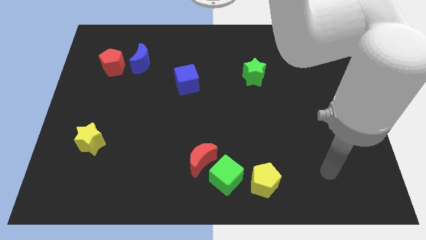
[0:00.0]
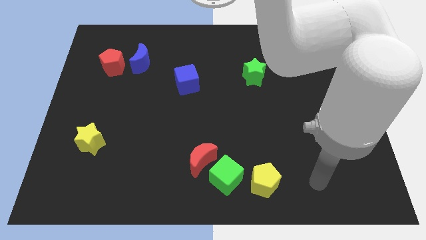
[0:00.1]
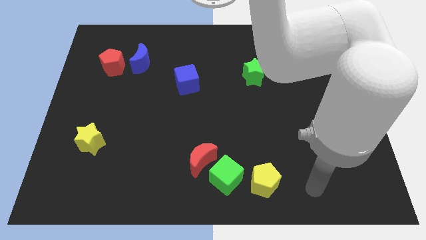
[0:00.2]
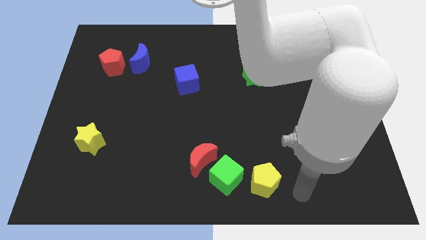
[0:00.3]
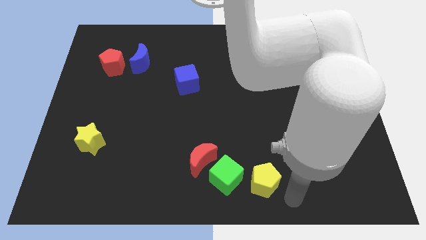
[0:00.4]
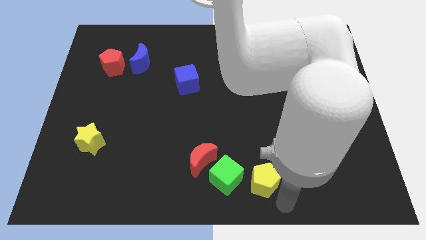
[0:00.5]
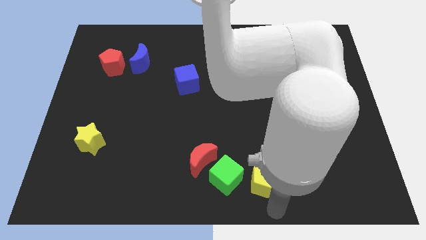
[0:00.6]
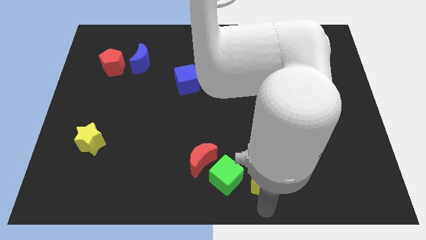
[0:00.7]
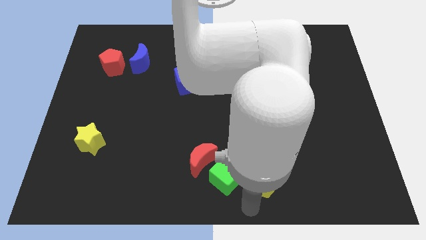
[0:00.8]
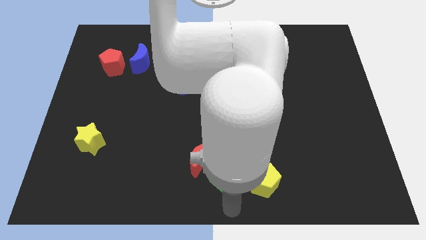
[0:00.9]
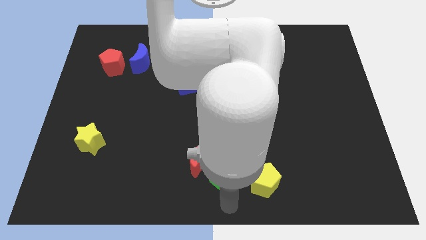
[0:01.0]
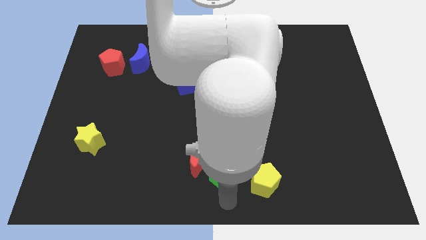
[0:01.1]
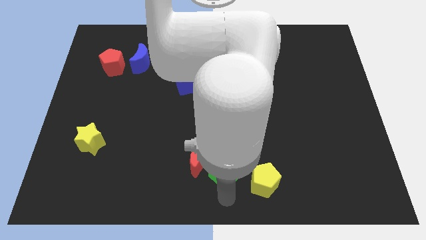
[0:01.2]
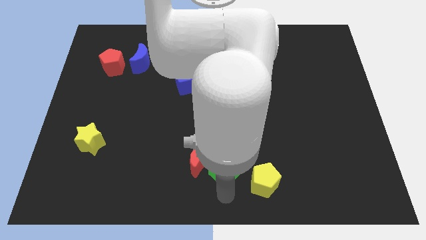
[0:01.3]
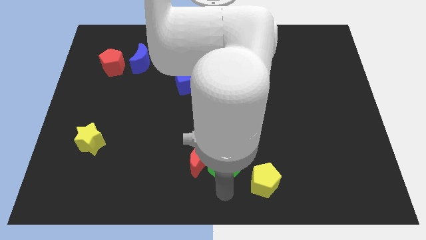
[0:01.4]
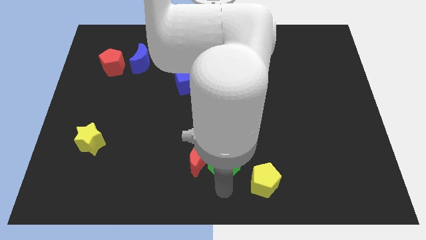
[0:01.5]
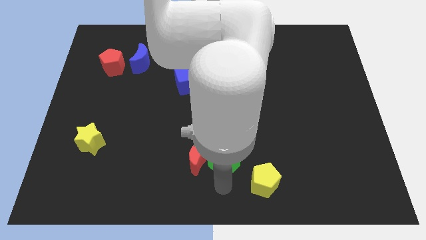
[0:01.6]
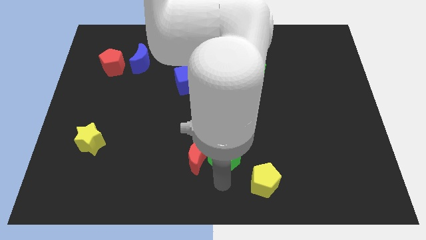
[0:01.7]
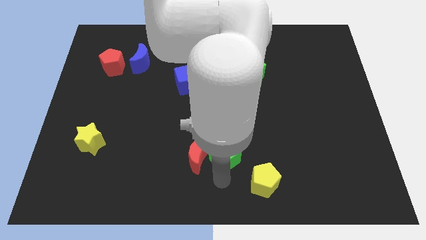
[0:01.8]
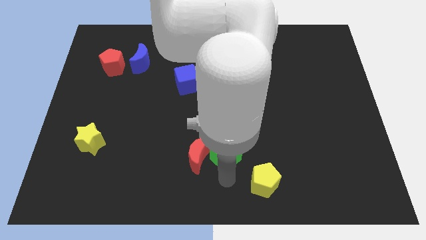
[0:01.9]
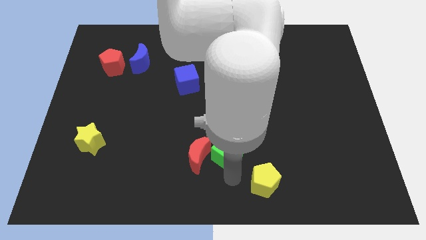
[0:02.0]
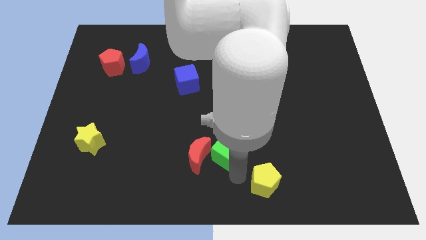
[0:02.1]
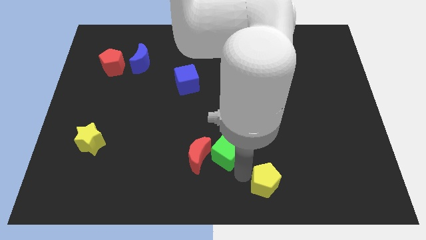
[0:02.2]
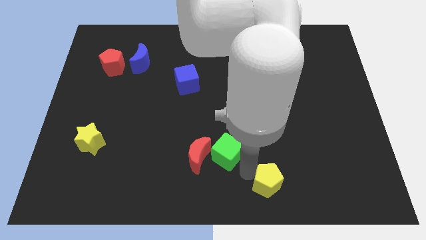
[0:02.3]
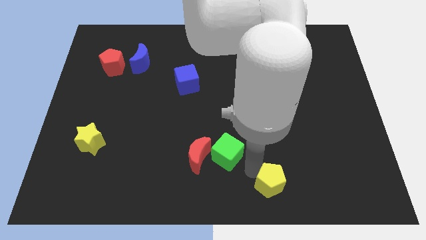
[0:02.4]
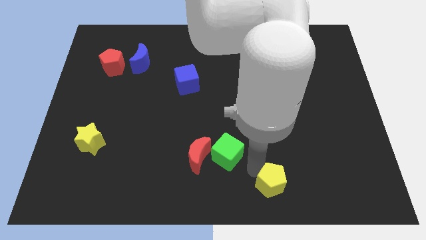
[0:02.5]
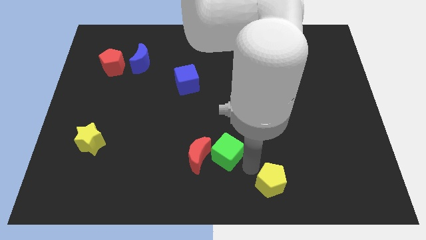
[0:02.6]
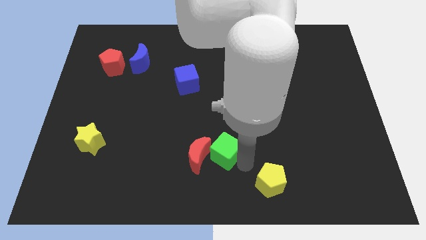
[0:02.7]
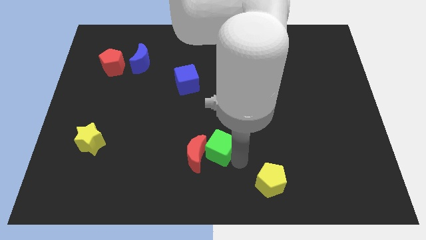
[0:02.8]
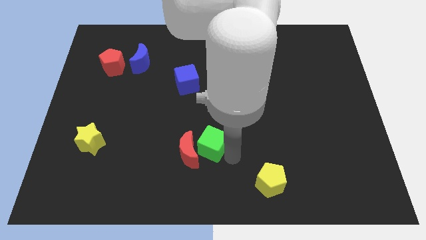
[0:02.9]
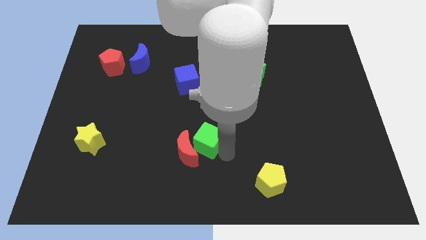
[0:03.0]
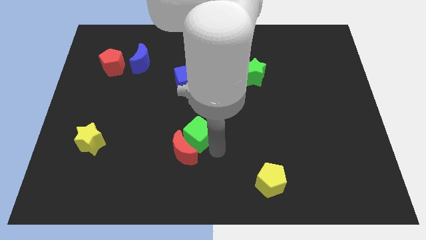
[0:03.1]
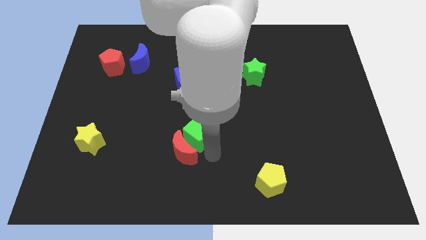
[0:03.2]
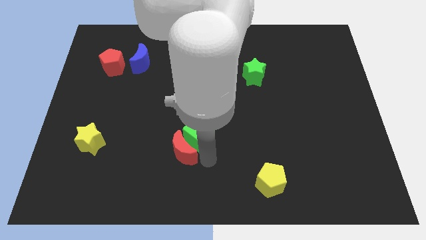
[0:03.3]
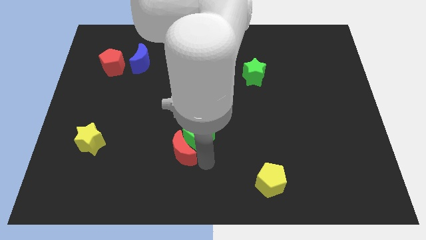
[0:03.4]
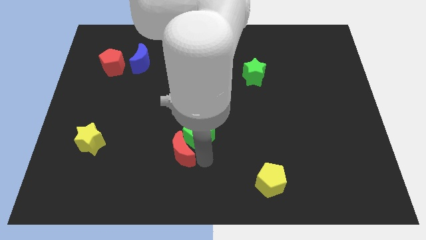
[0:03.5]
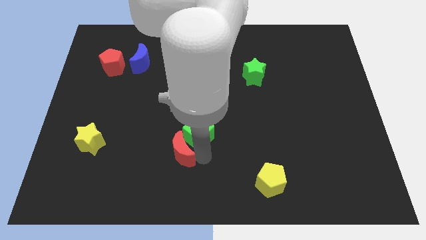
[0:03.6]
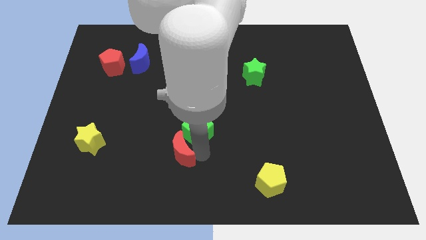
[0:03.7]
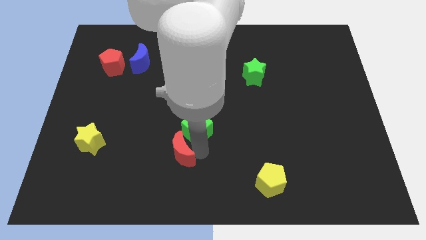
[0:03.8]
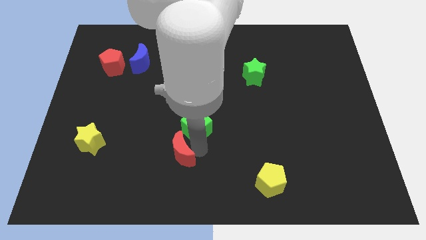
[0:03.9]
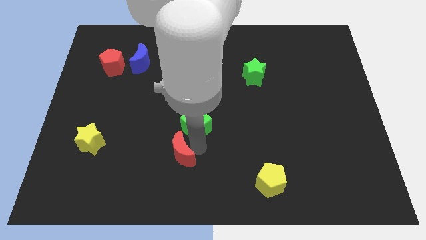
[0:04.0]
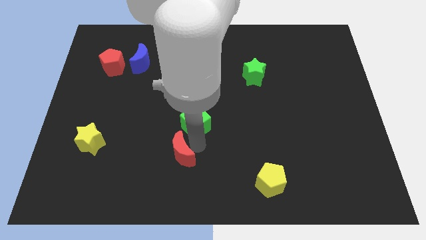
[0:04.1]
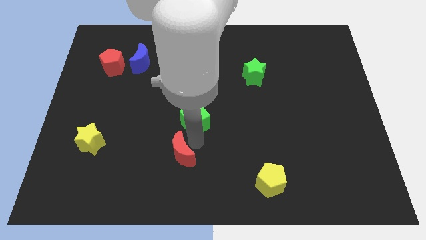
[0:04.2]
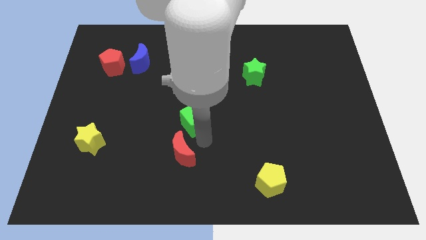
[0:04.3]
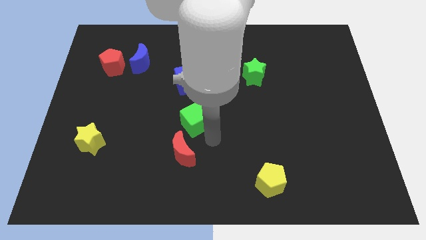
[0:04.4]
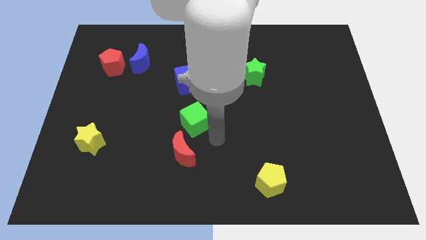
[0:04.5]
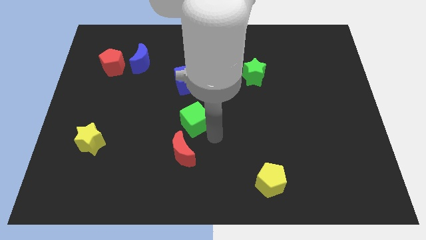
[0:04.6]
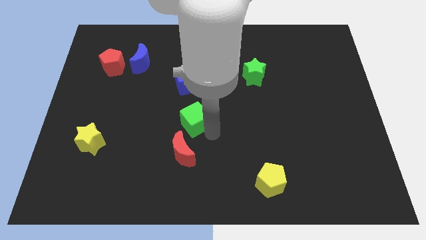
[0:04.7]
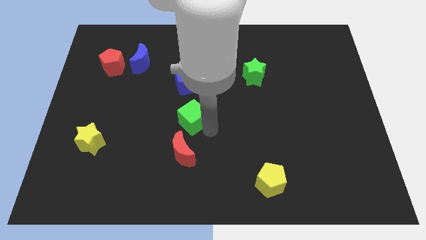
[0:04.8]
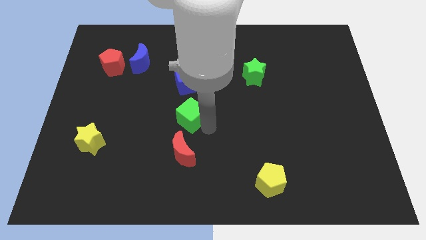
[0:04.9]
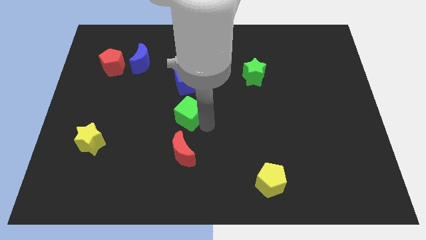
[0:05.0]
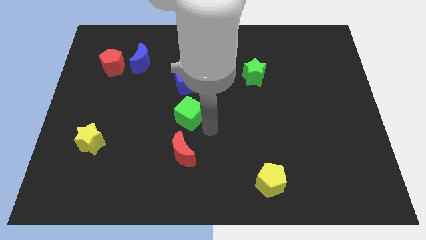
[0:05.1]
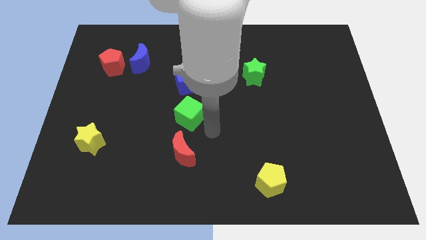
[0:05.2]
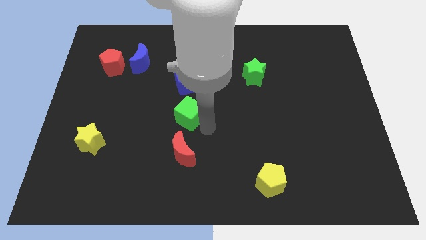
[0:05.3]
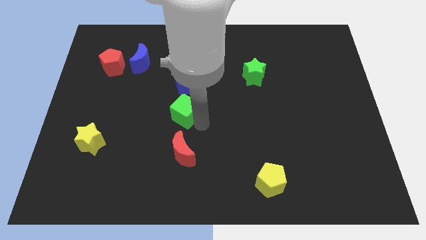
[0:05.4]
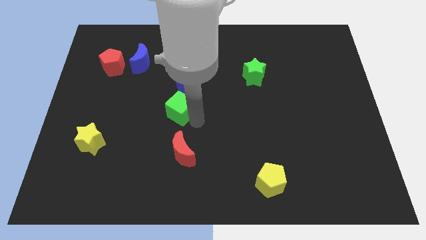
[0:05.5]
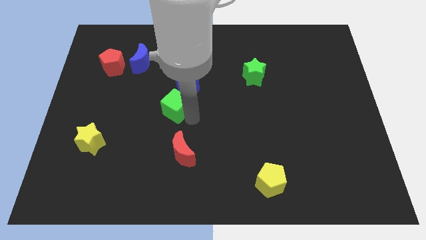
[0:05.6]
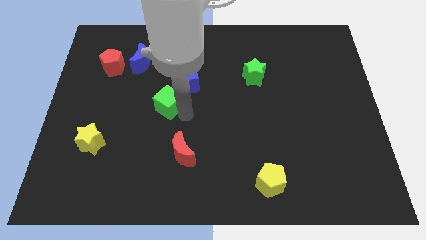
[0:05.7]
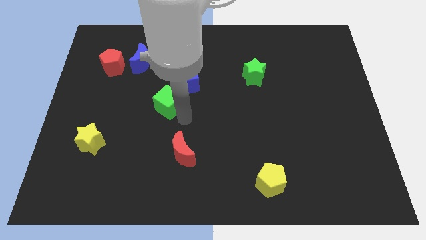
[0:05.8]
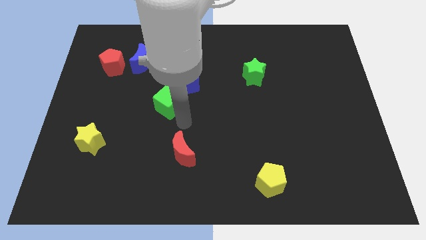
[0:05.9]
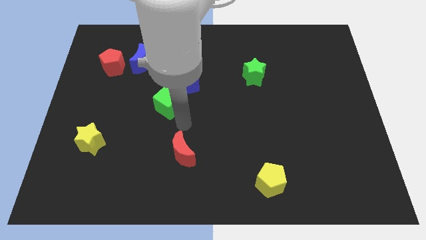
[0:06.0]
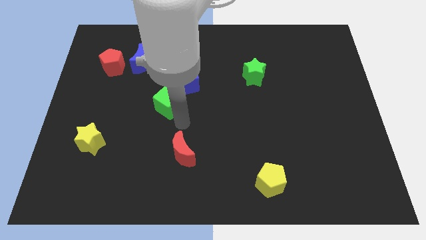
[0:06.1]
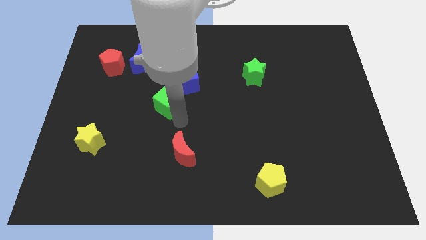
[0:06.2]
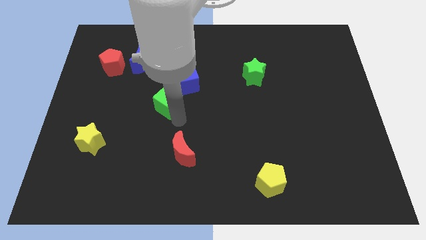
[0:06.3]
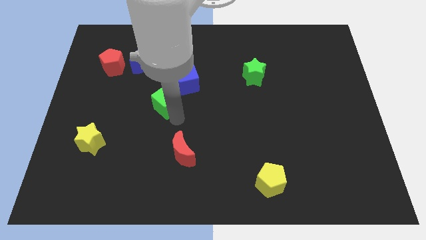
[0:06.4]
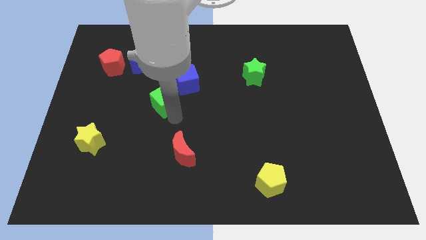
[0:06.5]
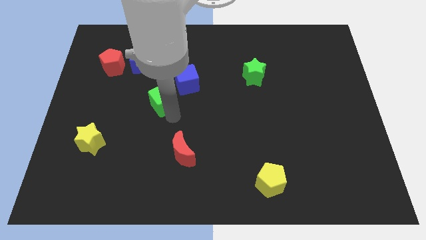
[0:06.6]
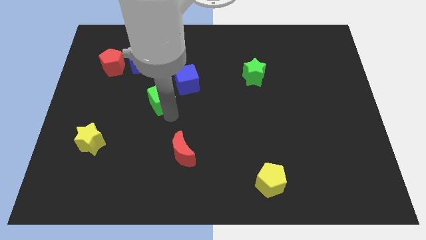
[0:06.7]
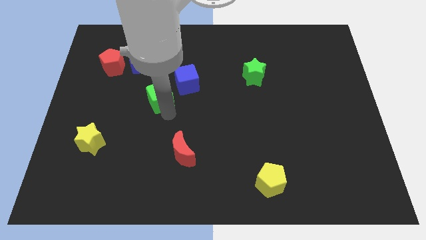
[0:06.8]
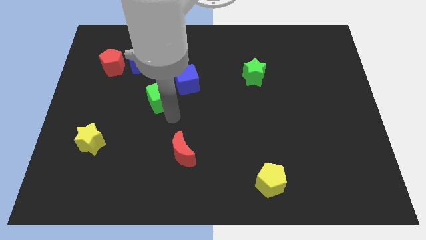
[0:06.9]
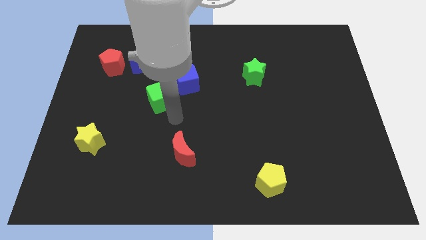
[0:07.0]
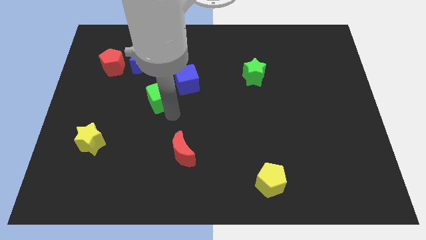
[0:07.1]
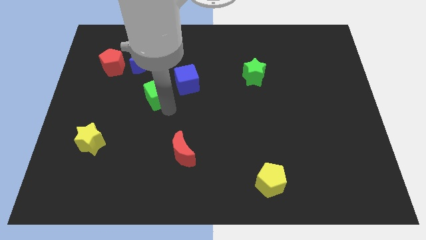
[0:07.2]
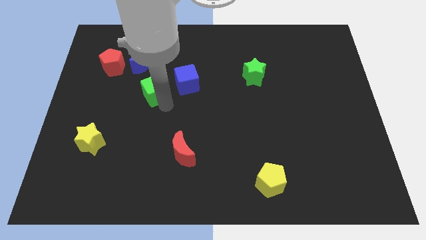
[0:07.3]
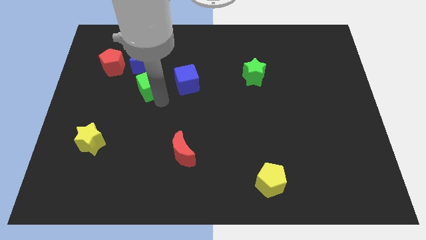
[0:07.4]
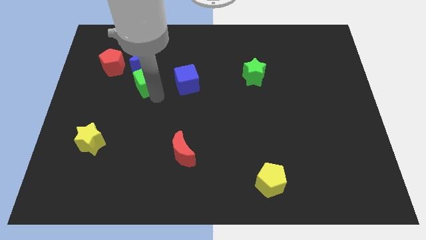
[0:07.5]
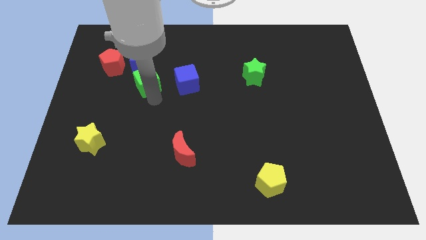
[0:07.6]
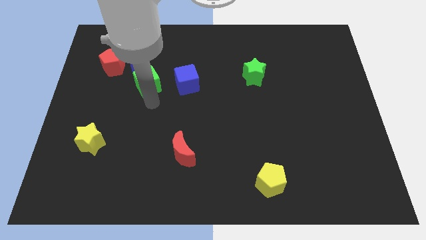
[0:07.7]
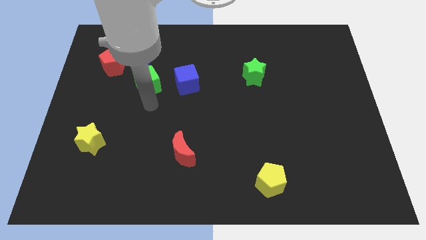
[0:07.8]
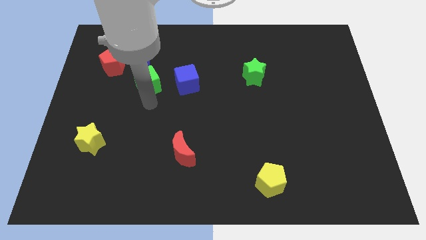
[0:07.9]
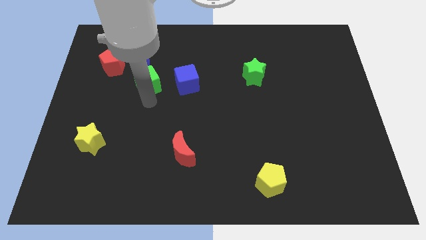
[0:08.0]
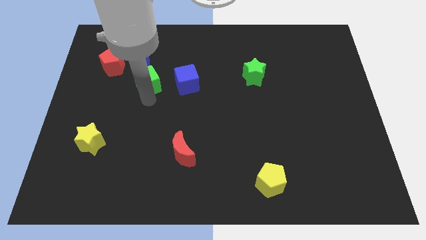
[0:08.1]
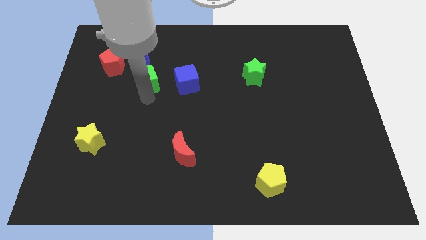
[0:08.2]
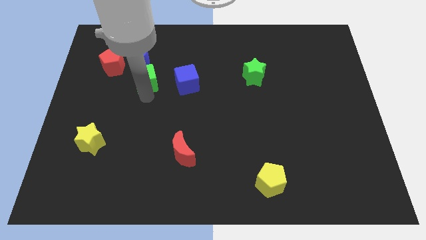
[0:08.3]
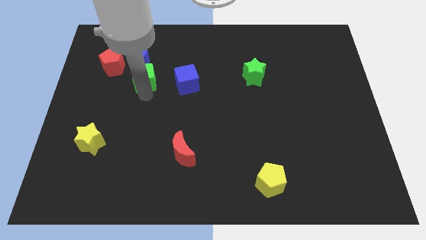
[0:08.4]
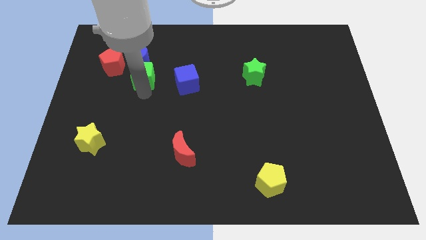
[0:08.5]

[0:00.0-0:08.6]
put the green cube towards the blue moon
